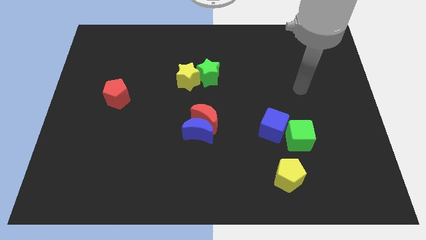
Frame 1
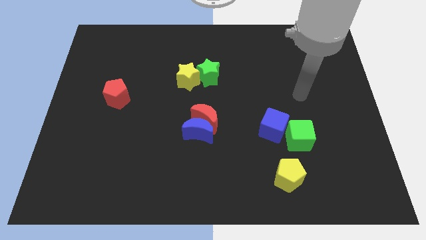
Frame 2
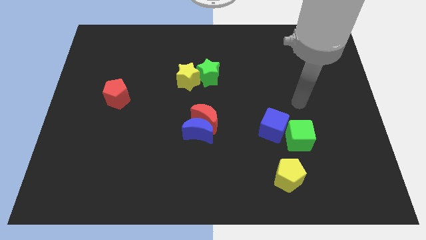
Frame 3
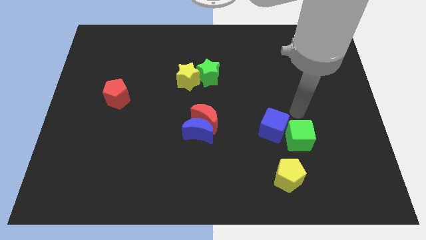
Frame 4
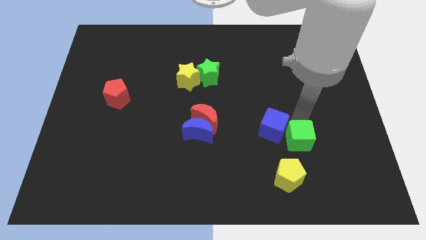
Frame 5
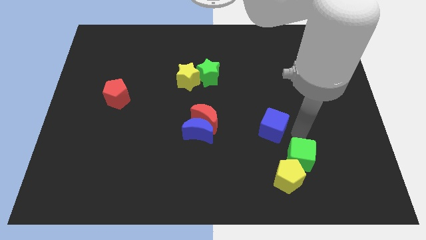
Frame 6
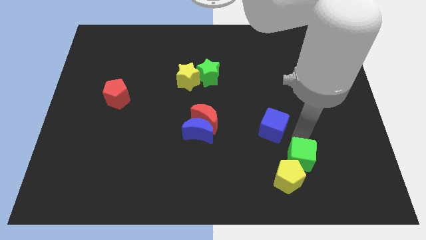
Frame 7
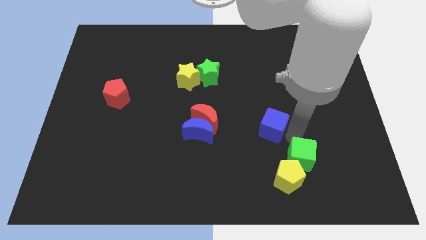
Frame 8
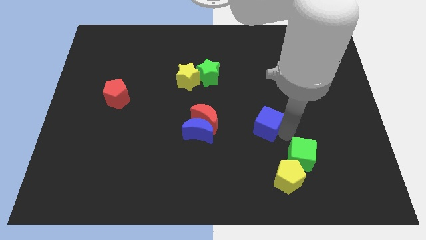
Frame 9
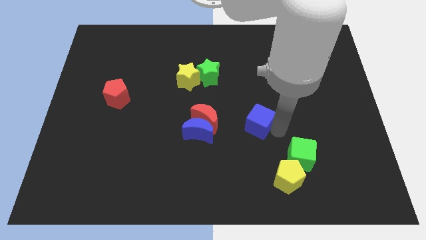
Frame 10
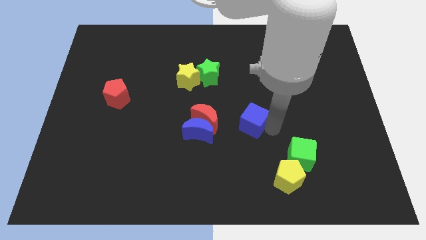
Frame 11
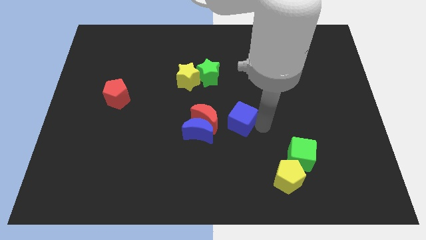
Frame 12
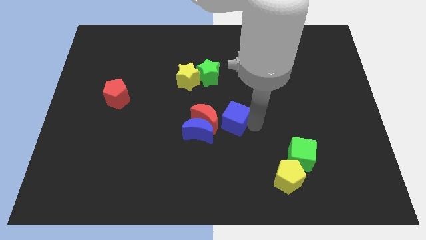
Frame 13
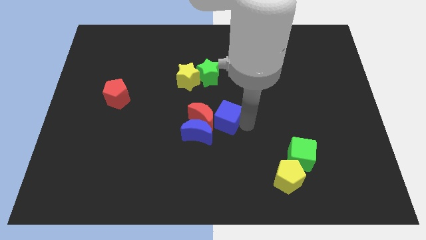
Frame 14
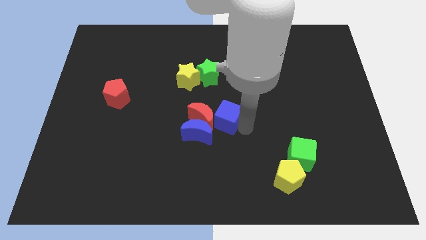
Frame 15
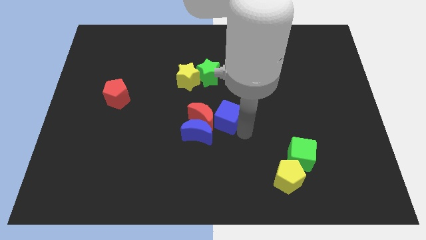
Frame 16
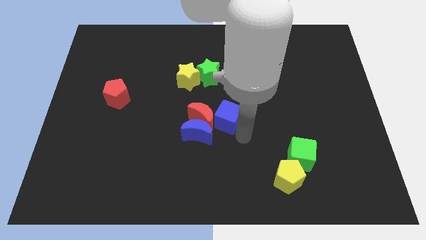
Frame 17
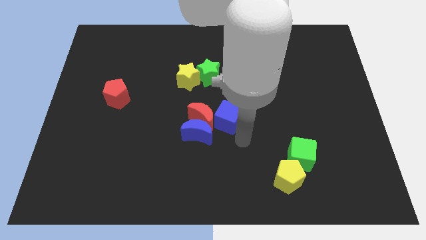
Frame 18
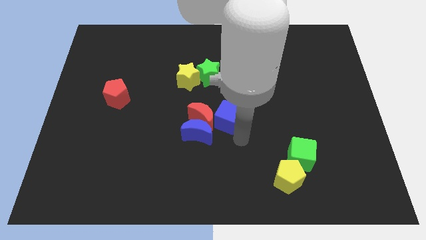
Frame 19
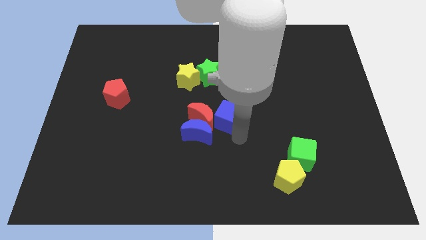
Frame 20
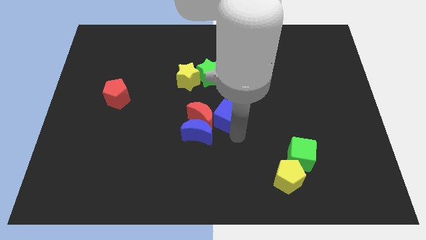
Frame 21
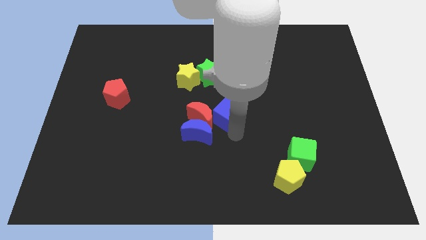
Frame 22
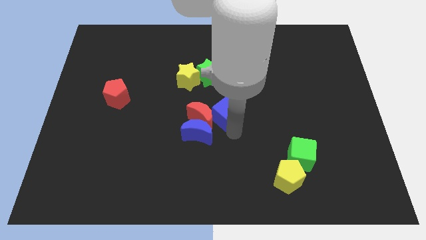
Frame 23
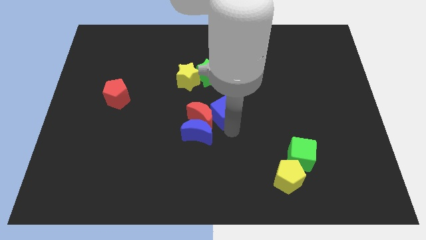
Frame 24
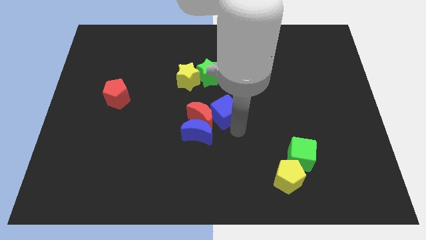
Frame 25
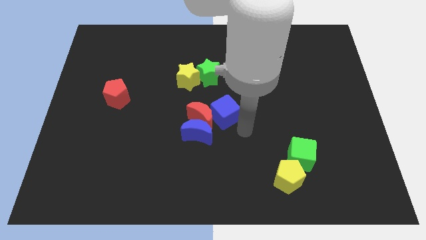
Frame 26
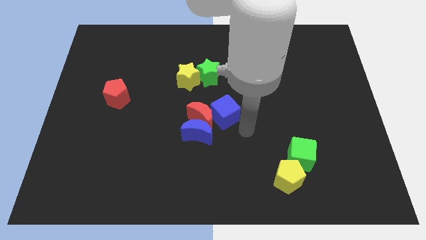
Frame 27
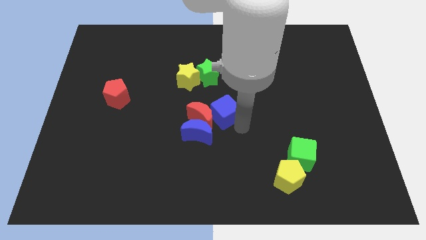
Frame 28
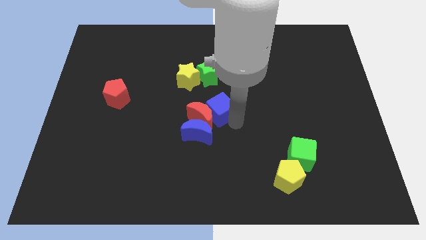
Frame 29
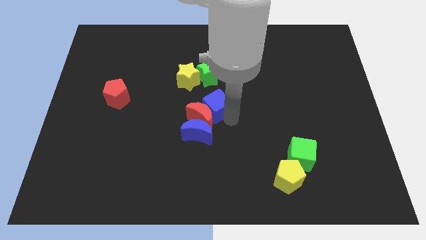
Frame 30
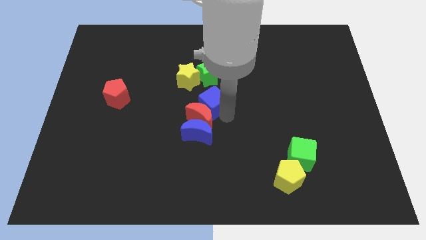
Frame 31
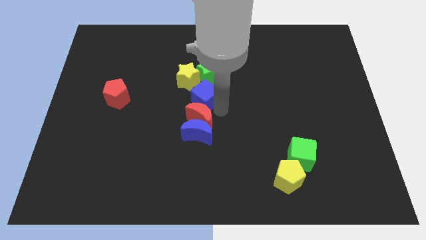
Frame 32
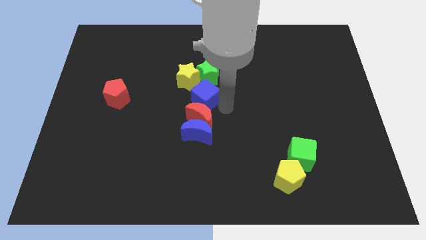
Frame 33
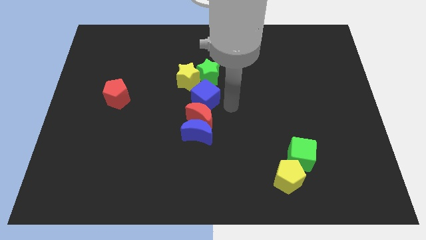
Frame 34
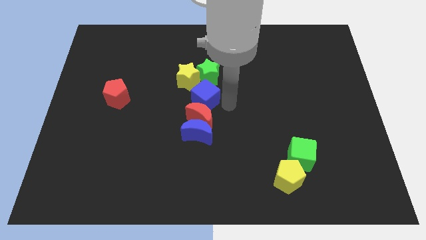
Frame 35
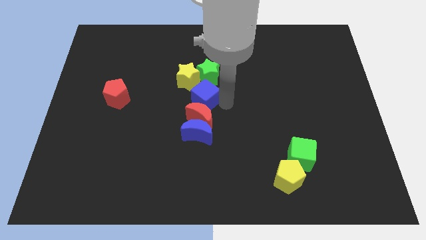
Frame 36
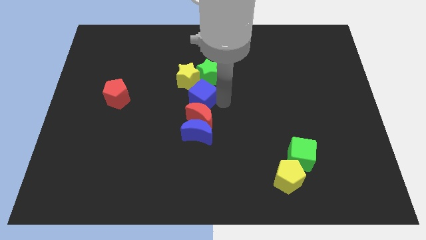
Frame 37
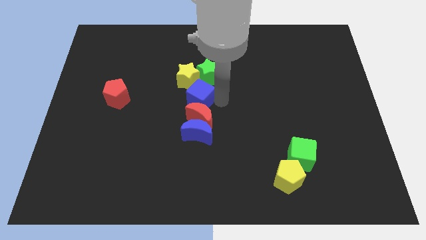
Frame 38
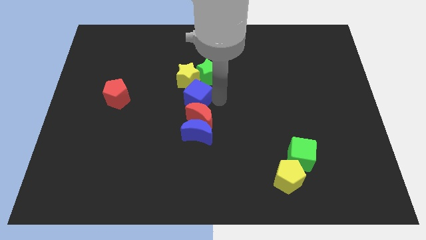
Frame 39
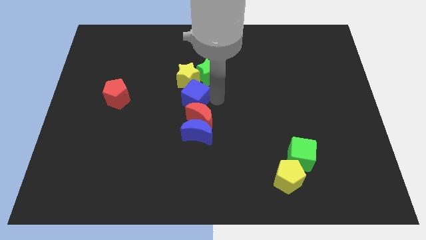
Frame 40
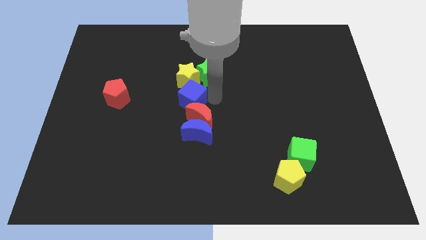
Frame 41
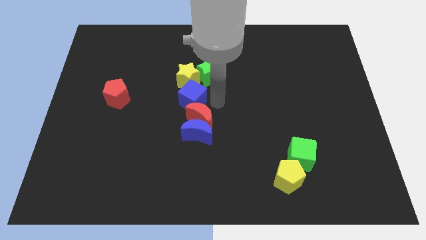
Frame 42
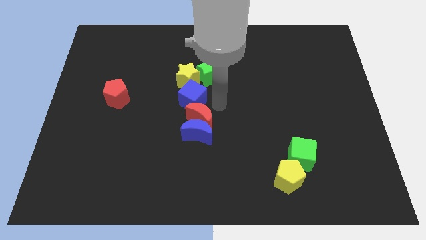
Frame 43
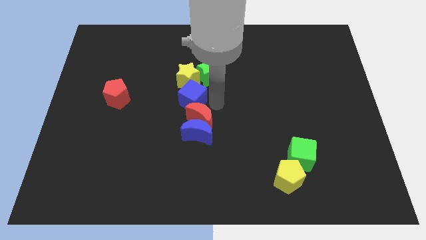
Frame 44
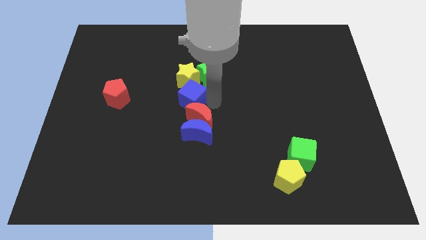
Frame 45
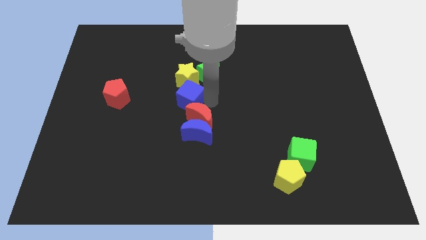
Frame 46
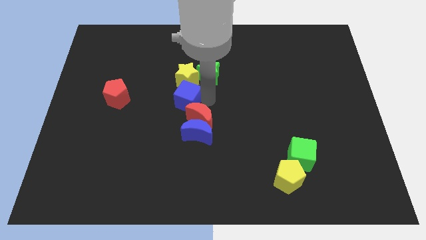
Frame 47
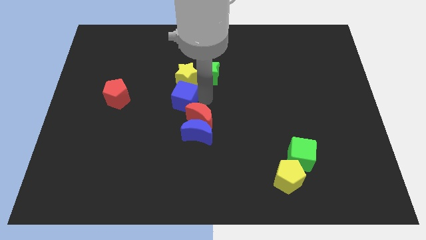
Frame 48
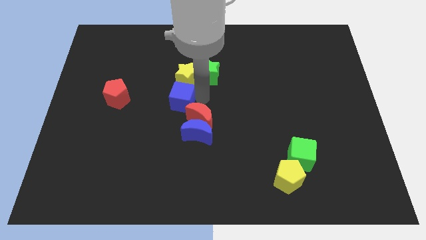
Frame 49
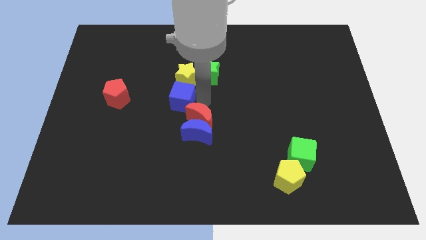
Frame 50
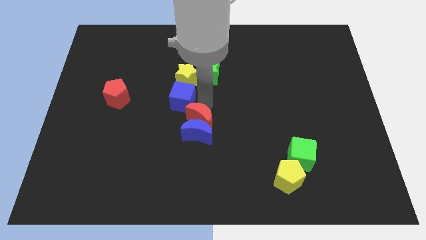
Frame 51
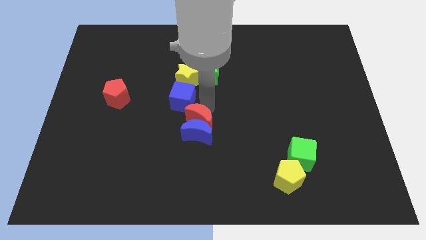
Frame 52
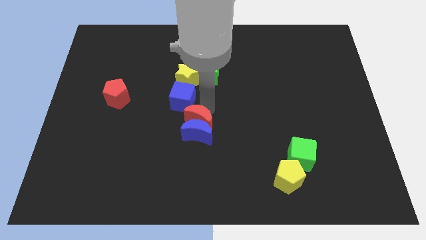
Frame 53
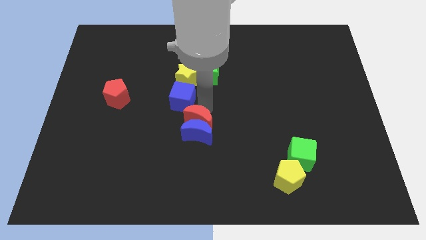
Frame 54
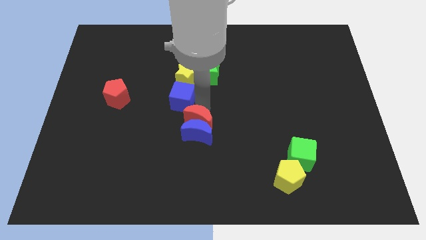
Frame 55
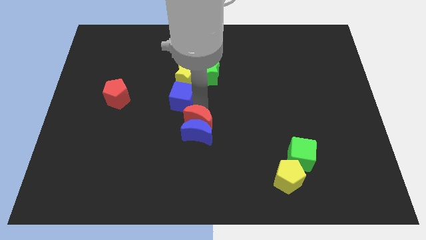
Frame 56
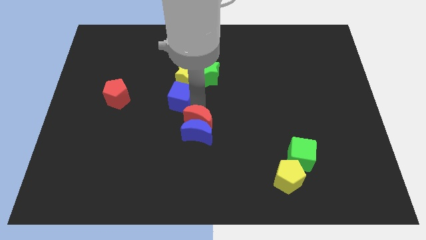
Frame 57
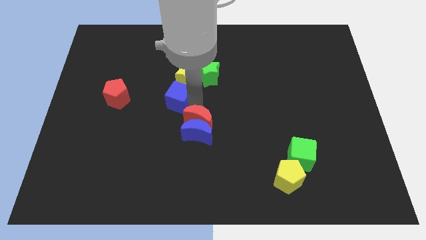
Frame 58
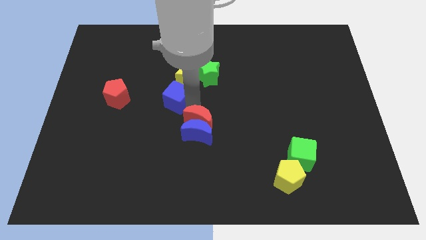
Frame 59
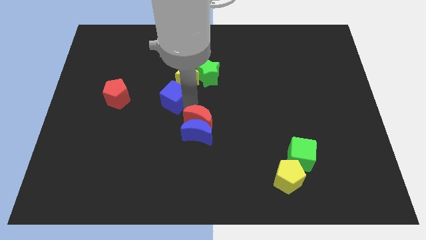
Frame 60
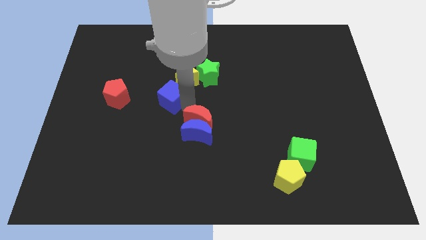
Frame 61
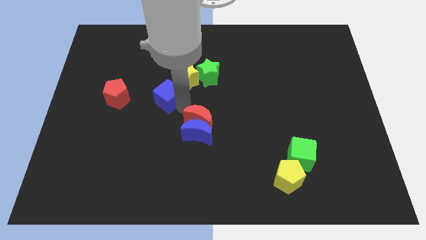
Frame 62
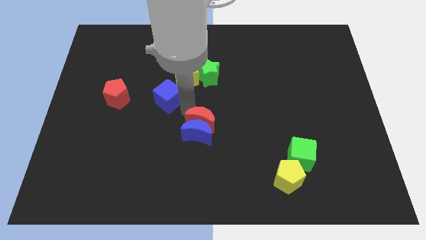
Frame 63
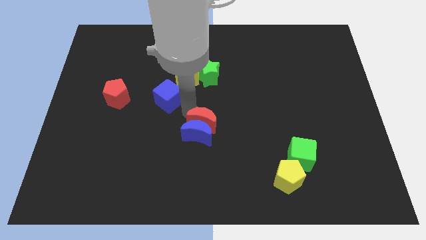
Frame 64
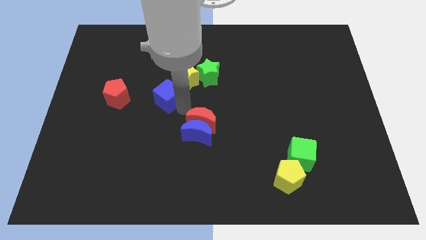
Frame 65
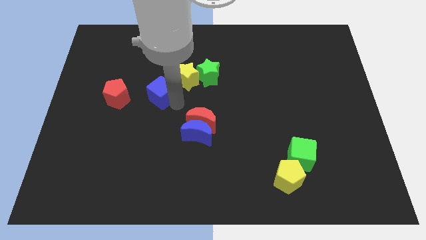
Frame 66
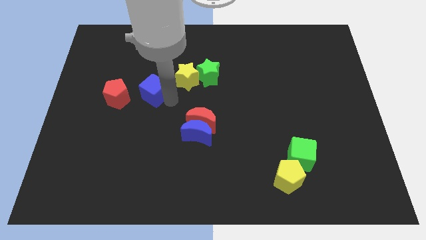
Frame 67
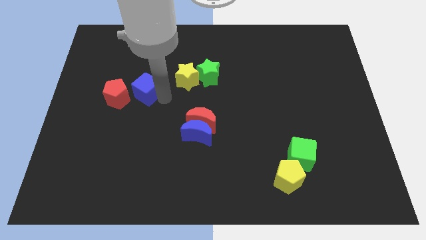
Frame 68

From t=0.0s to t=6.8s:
move the blue cube to the top right side of the red pentagon
